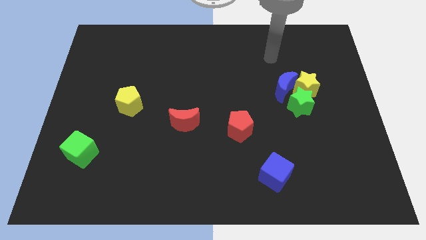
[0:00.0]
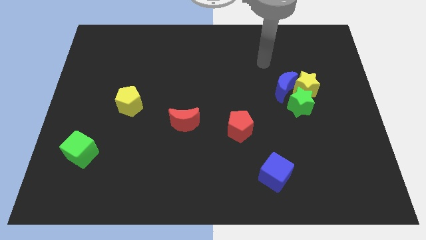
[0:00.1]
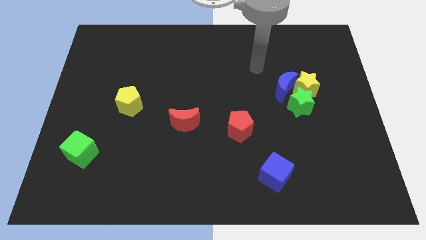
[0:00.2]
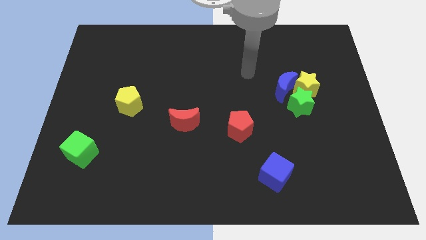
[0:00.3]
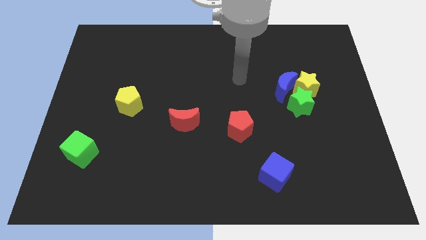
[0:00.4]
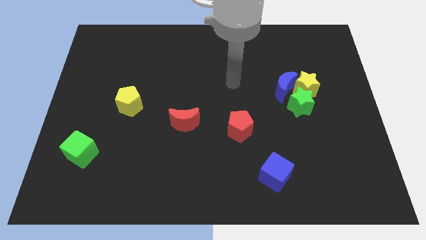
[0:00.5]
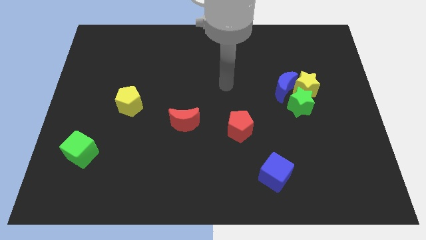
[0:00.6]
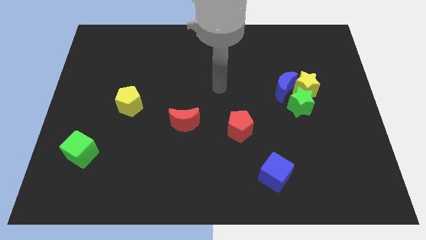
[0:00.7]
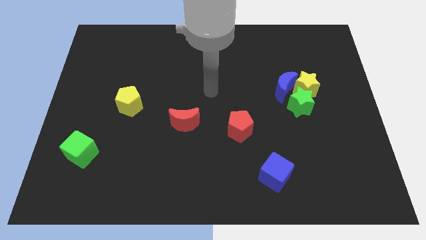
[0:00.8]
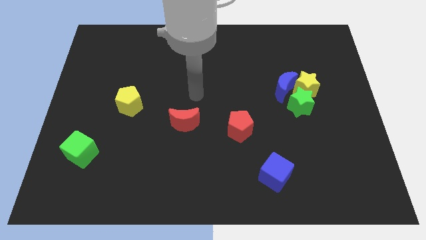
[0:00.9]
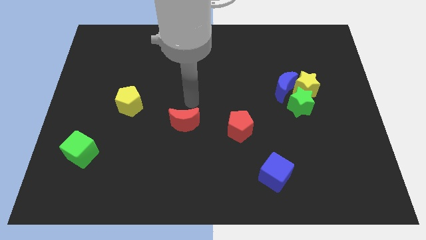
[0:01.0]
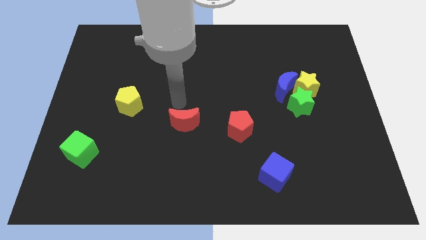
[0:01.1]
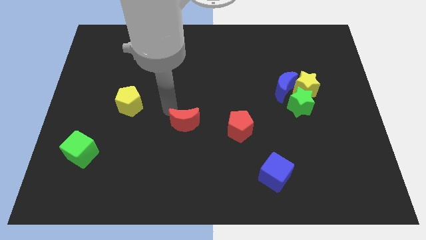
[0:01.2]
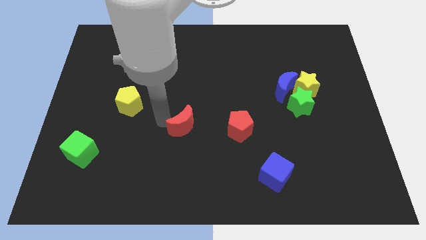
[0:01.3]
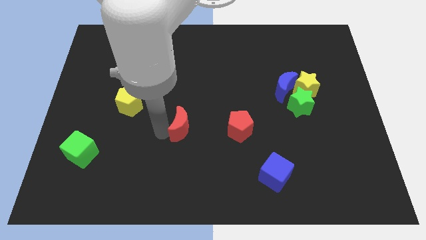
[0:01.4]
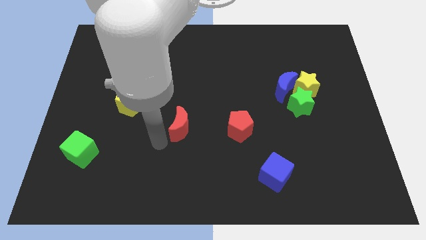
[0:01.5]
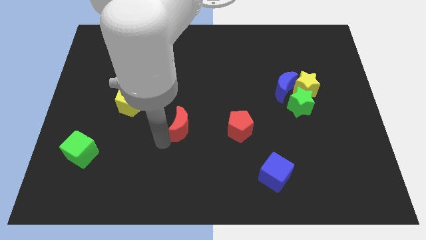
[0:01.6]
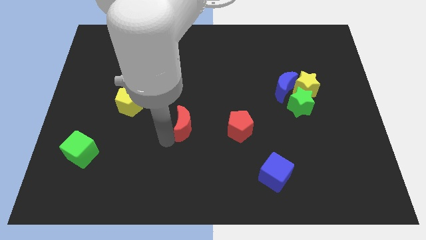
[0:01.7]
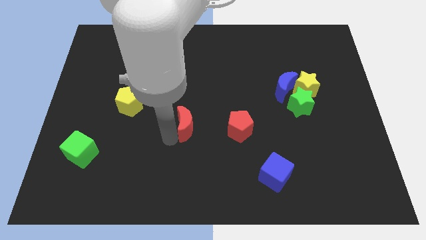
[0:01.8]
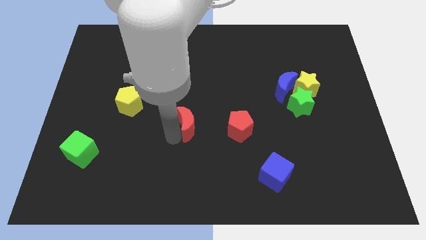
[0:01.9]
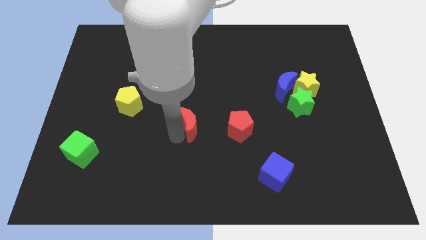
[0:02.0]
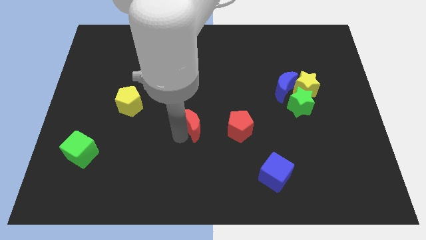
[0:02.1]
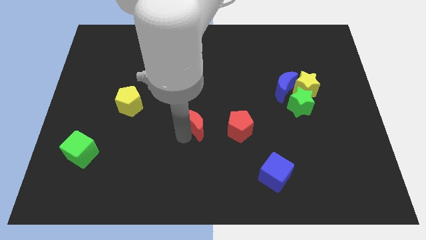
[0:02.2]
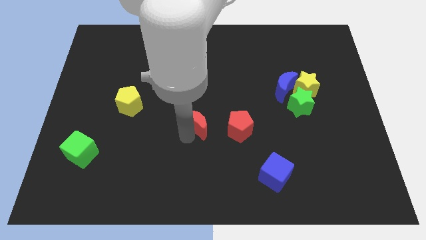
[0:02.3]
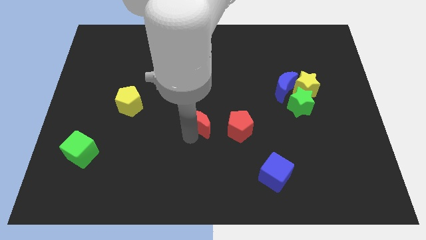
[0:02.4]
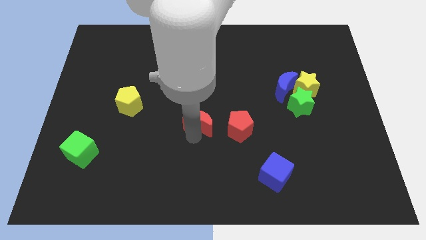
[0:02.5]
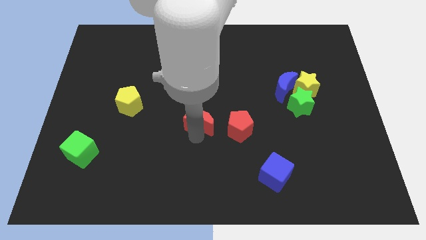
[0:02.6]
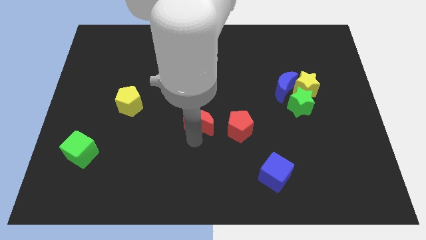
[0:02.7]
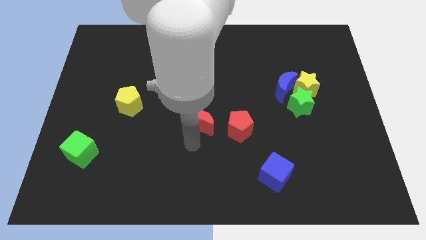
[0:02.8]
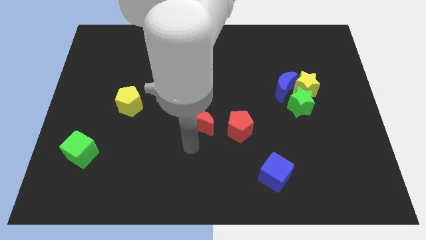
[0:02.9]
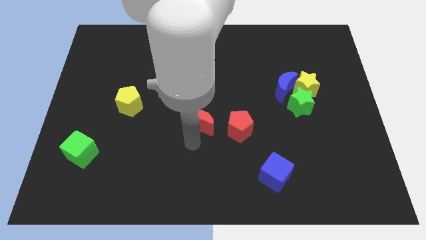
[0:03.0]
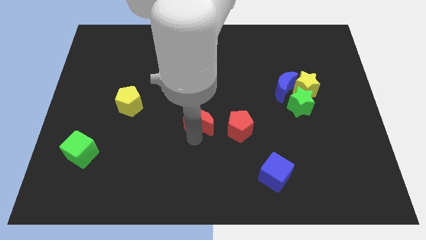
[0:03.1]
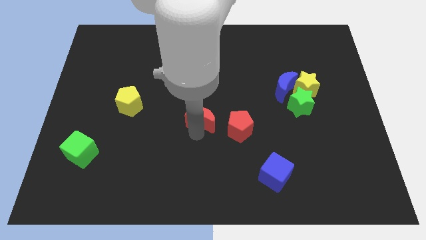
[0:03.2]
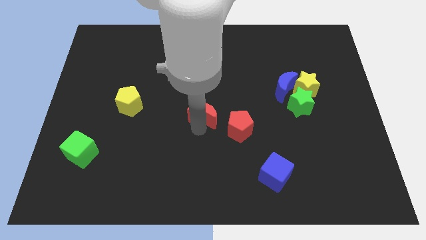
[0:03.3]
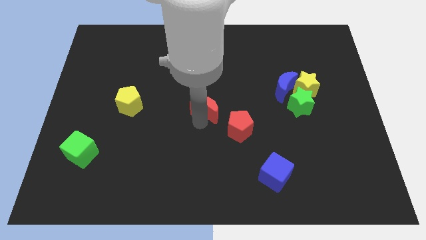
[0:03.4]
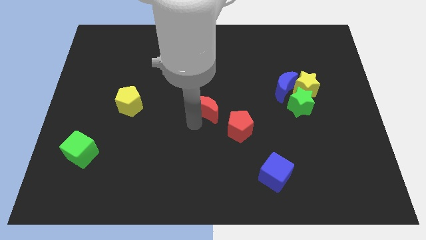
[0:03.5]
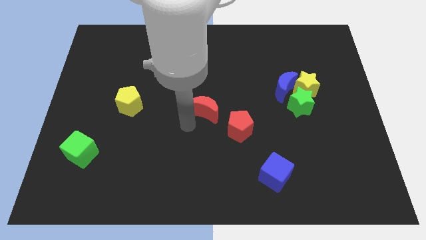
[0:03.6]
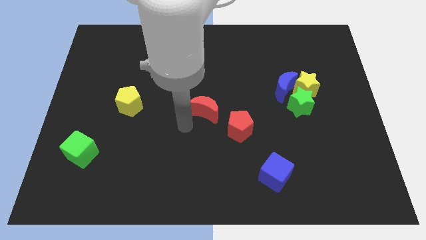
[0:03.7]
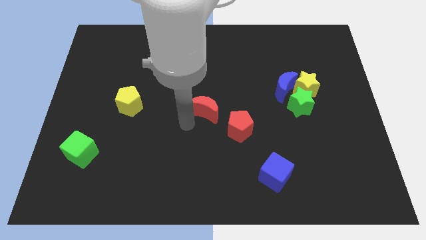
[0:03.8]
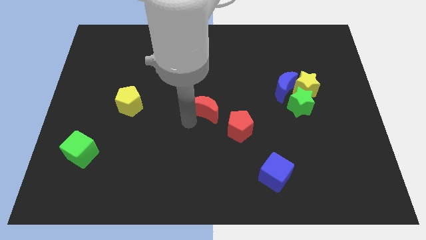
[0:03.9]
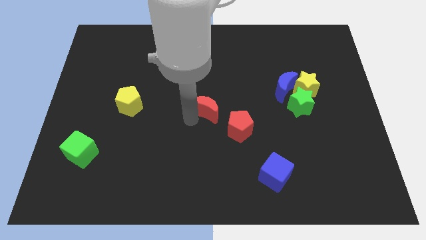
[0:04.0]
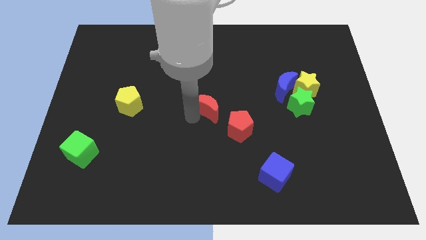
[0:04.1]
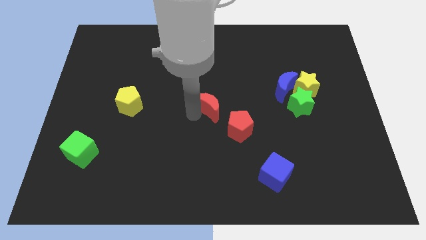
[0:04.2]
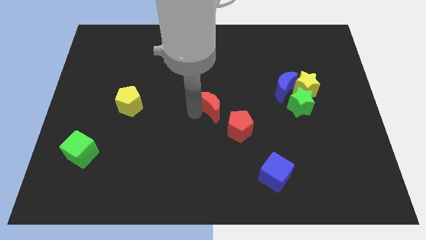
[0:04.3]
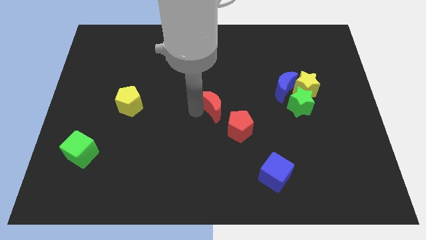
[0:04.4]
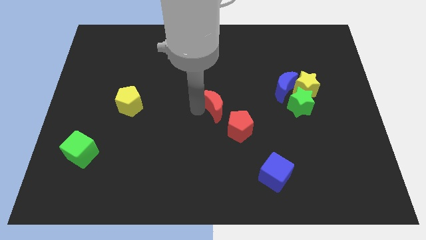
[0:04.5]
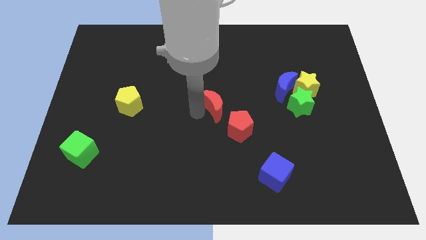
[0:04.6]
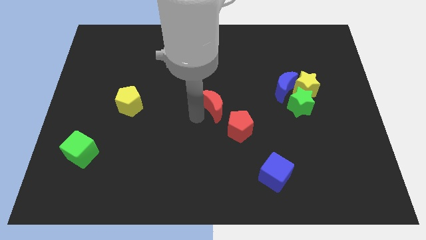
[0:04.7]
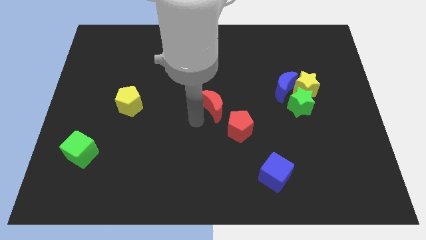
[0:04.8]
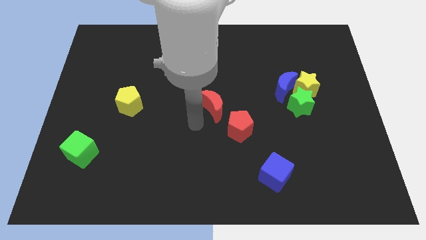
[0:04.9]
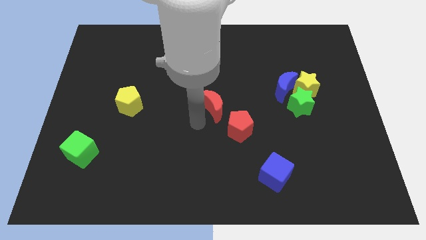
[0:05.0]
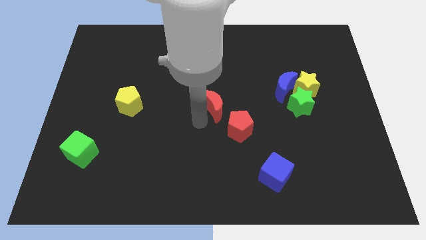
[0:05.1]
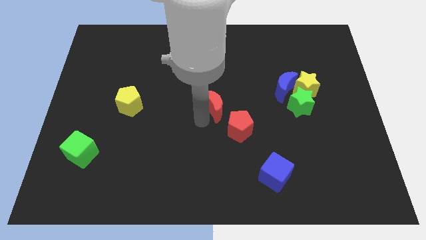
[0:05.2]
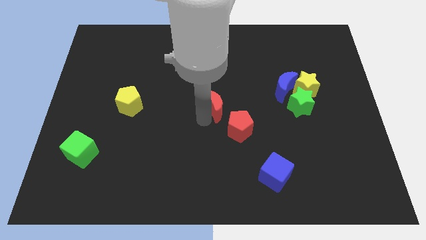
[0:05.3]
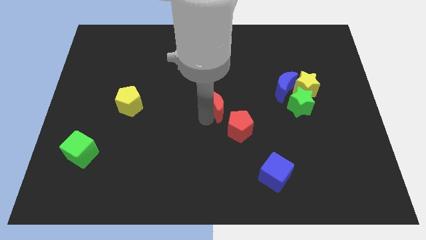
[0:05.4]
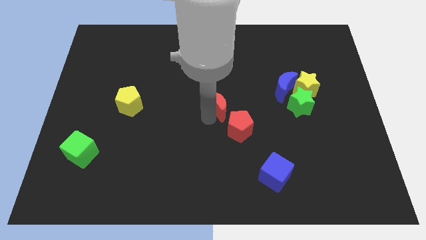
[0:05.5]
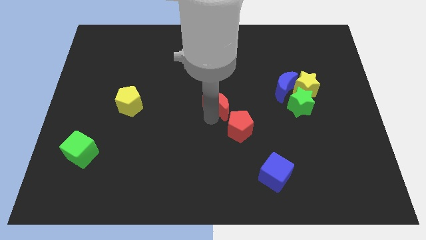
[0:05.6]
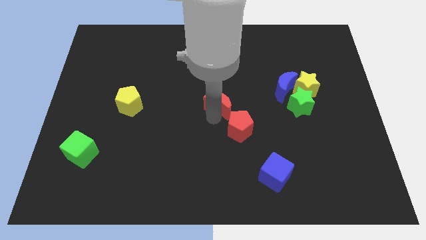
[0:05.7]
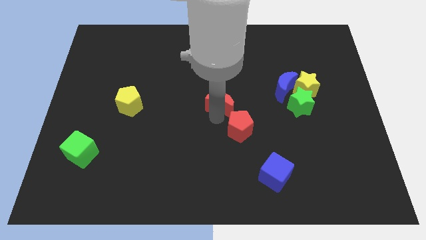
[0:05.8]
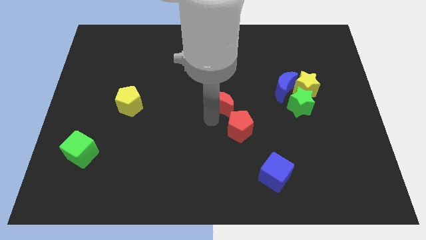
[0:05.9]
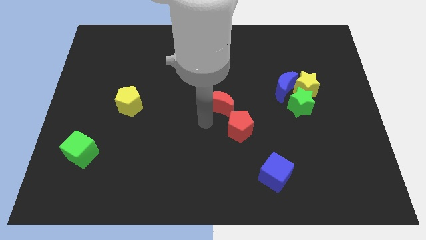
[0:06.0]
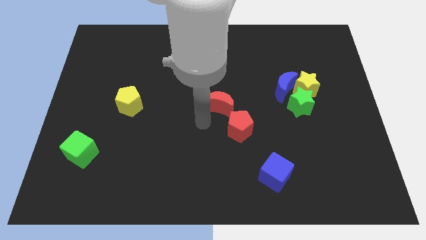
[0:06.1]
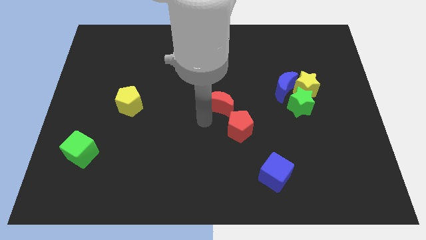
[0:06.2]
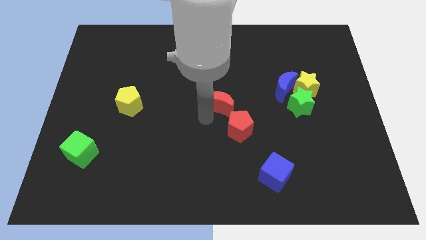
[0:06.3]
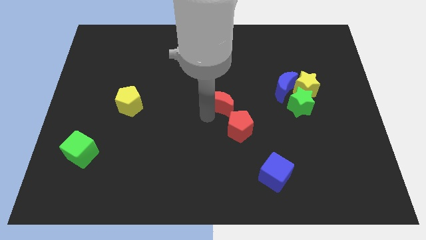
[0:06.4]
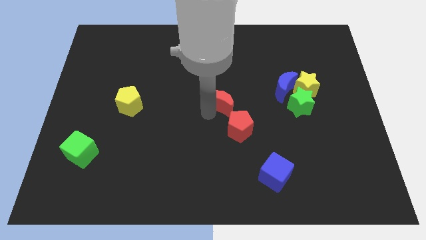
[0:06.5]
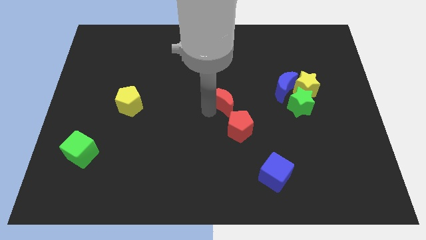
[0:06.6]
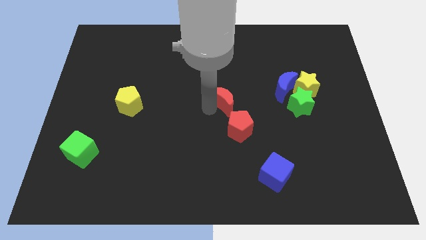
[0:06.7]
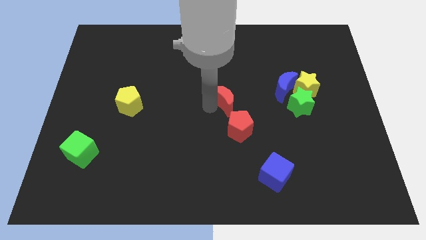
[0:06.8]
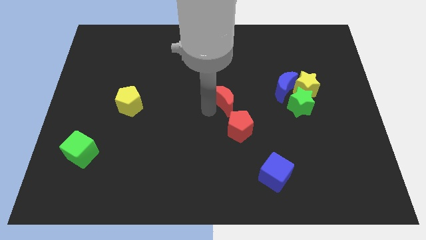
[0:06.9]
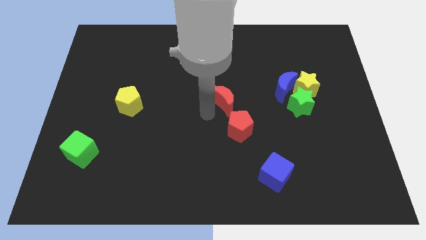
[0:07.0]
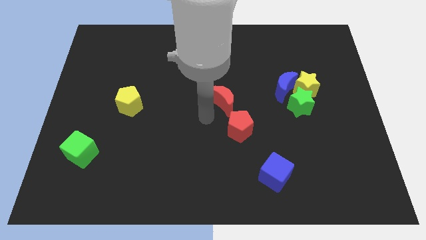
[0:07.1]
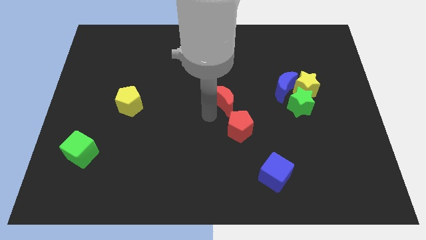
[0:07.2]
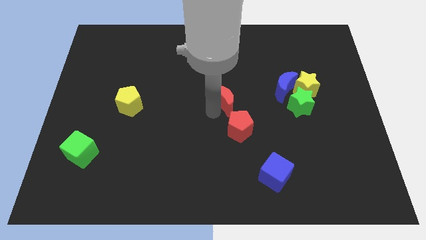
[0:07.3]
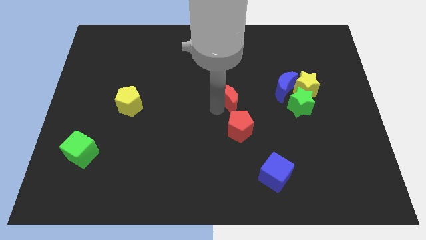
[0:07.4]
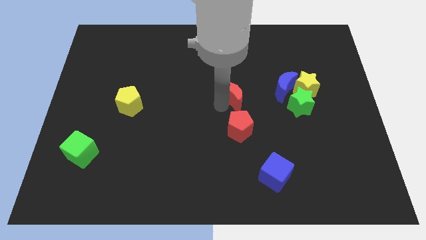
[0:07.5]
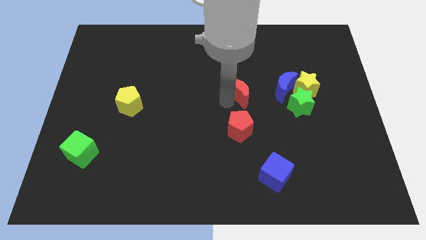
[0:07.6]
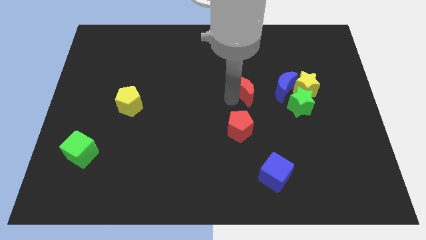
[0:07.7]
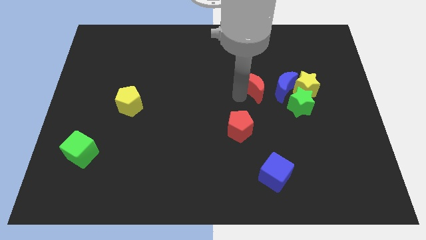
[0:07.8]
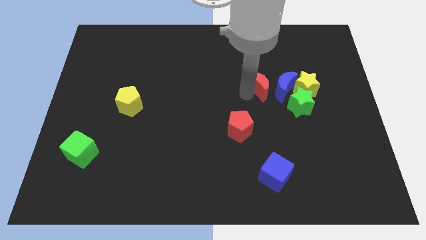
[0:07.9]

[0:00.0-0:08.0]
put the red moon diagonally up and to the left of the blue moon
